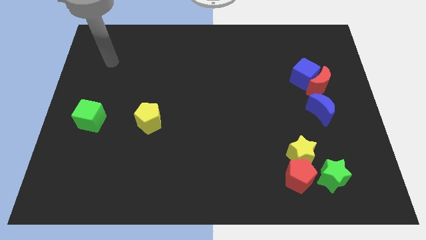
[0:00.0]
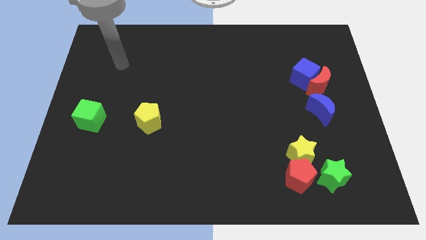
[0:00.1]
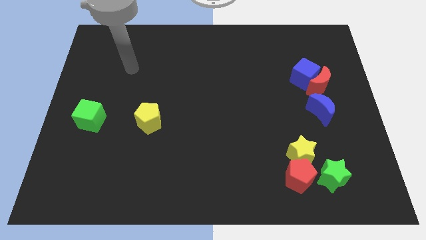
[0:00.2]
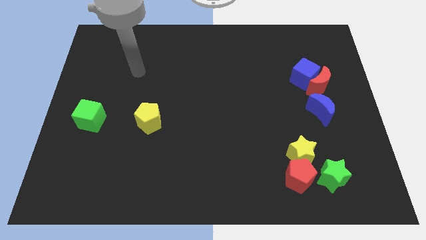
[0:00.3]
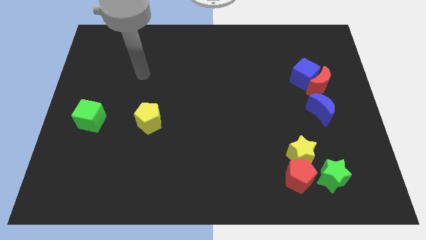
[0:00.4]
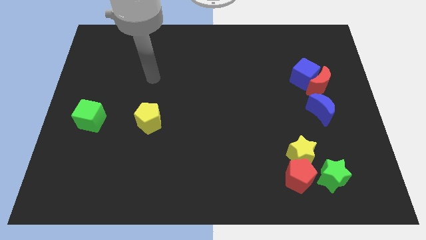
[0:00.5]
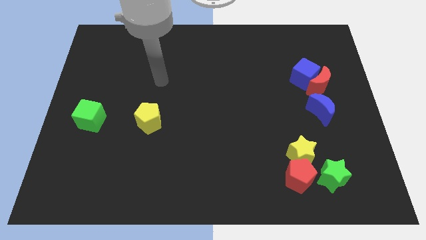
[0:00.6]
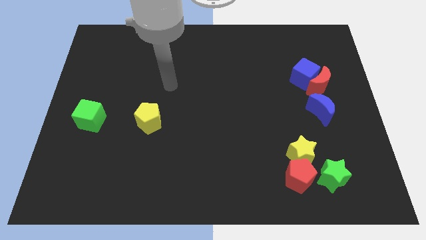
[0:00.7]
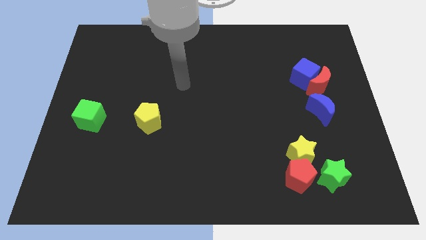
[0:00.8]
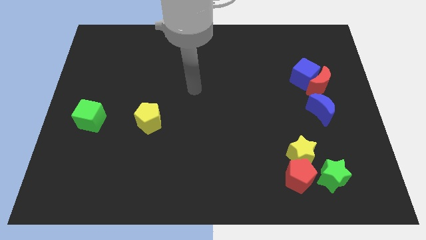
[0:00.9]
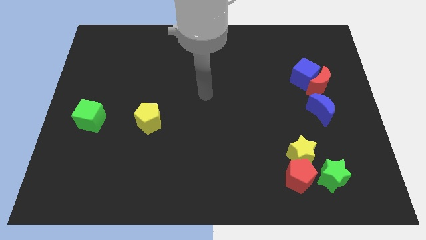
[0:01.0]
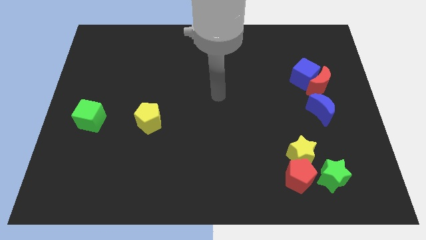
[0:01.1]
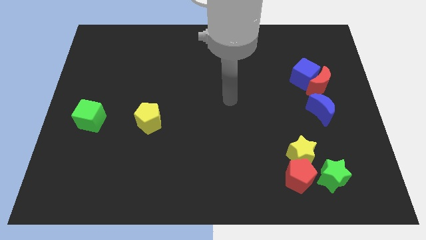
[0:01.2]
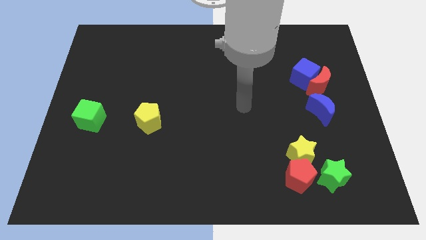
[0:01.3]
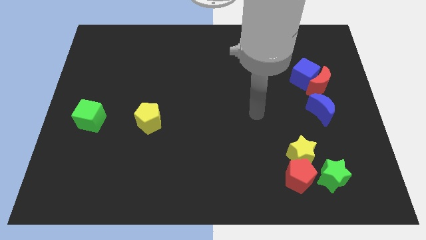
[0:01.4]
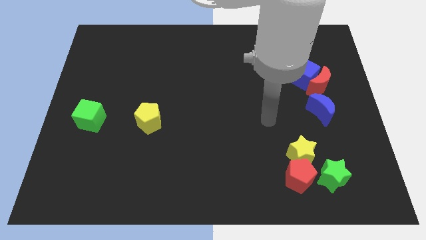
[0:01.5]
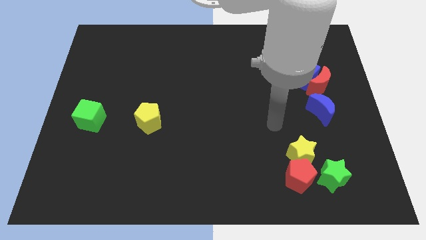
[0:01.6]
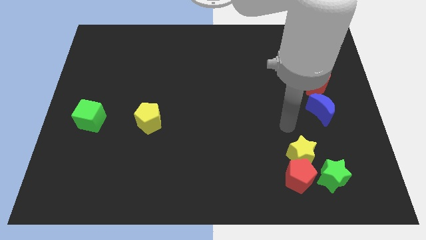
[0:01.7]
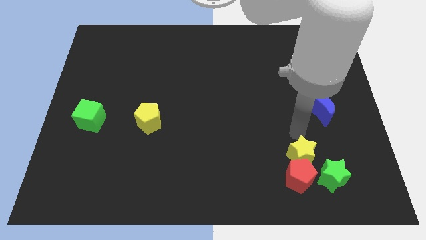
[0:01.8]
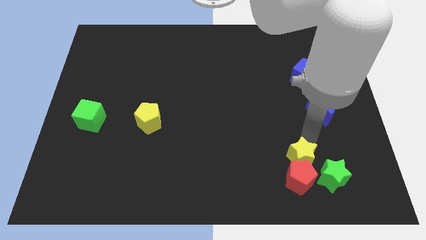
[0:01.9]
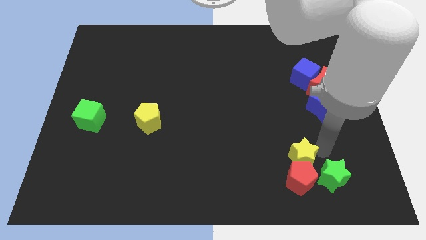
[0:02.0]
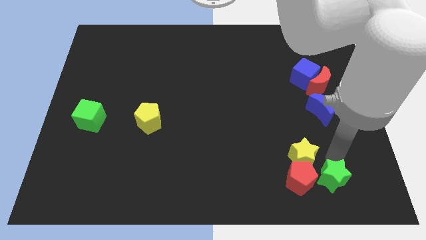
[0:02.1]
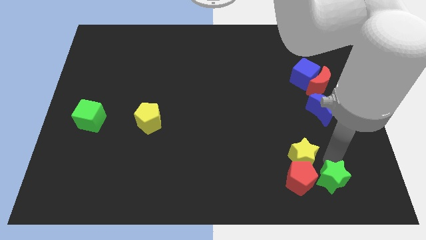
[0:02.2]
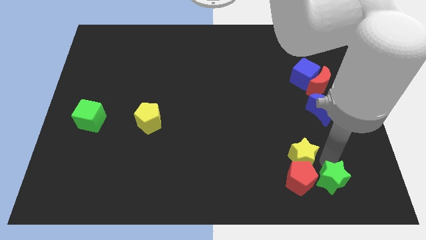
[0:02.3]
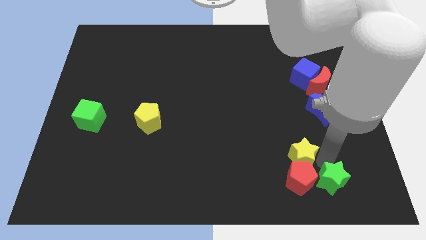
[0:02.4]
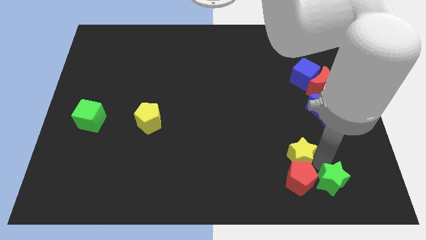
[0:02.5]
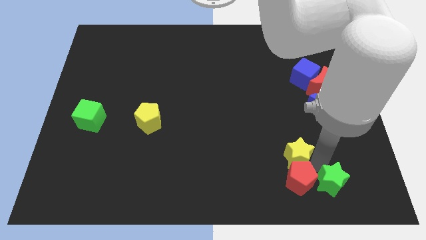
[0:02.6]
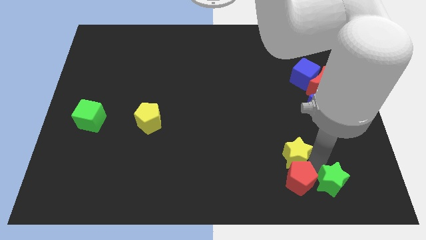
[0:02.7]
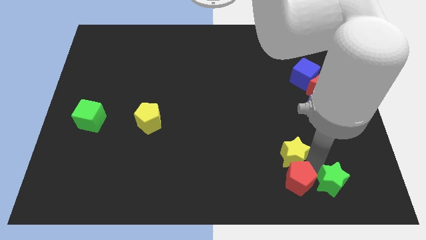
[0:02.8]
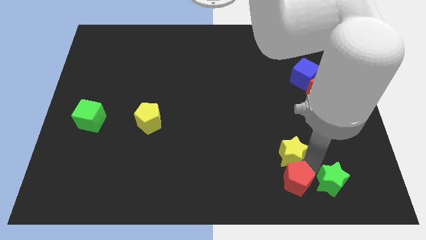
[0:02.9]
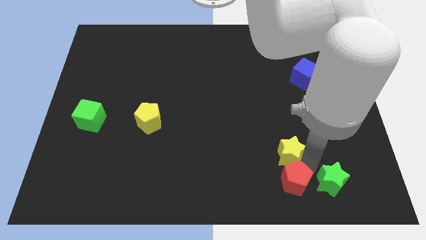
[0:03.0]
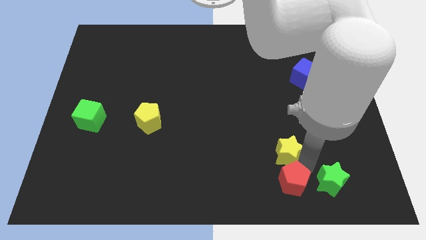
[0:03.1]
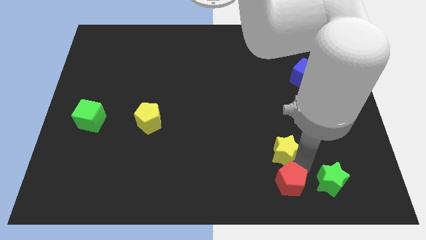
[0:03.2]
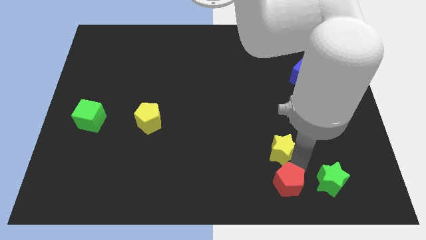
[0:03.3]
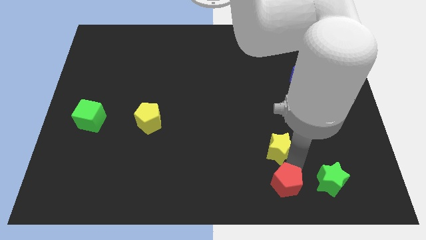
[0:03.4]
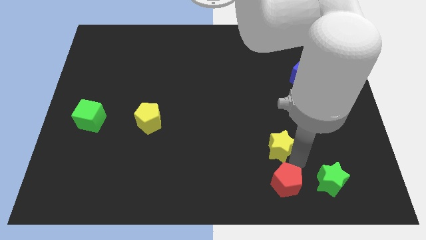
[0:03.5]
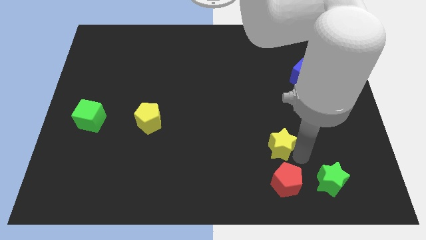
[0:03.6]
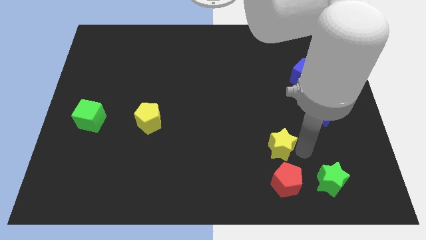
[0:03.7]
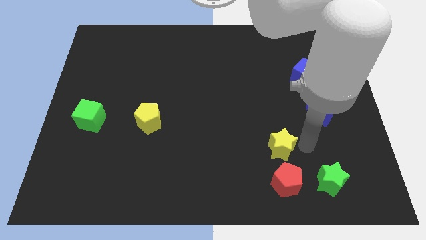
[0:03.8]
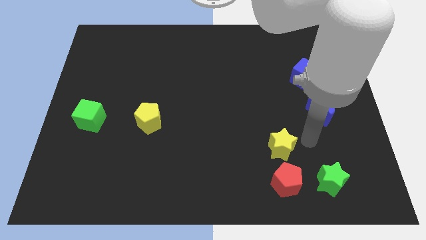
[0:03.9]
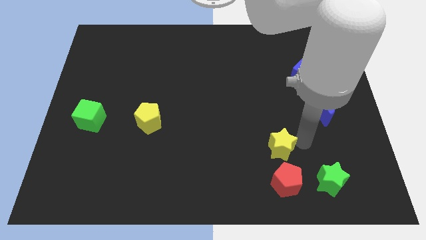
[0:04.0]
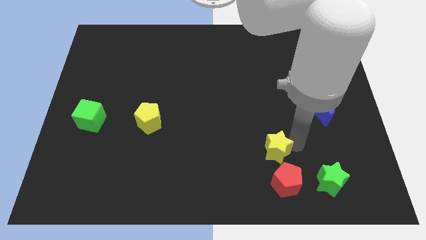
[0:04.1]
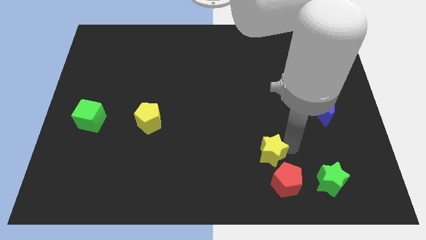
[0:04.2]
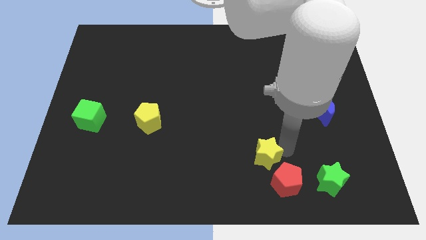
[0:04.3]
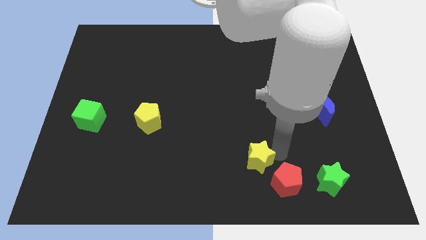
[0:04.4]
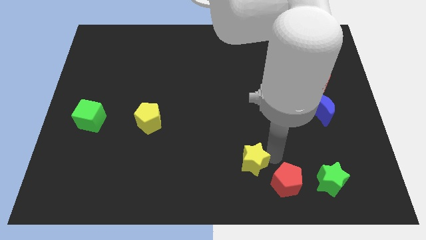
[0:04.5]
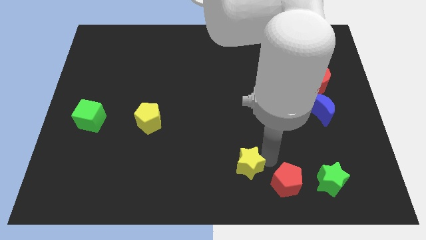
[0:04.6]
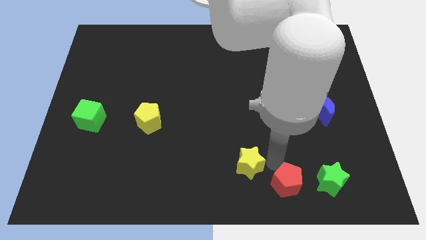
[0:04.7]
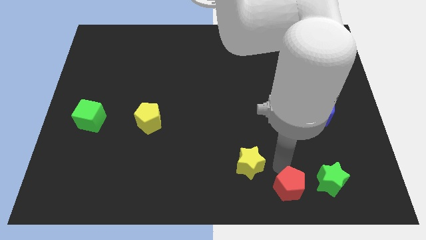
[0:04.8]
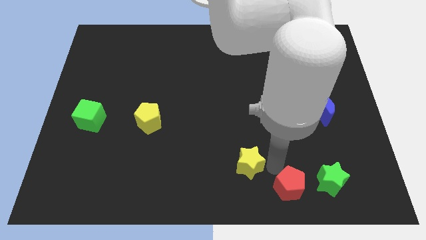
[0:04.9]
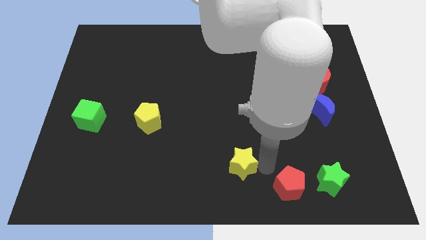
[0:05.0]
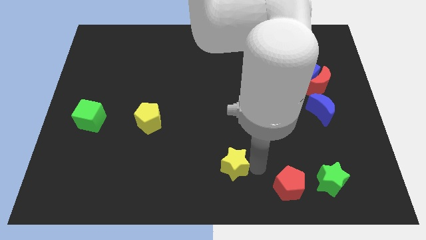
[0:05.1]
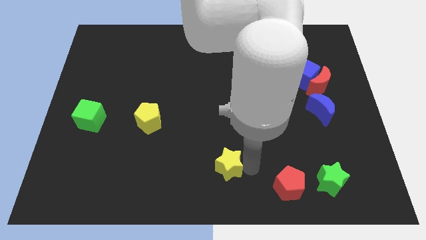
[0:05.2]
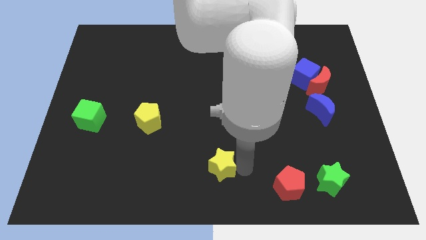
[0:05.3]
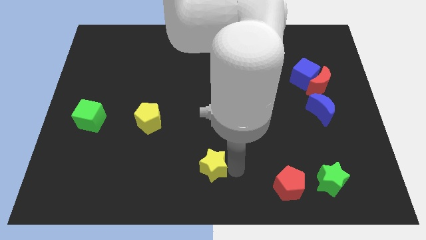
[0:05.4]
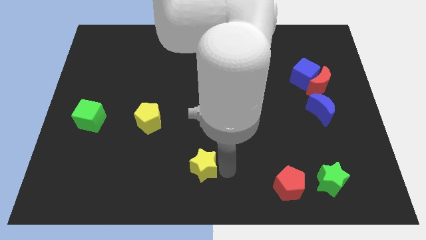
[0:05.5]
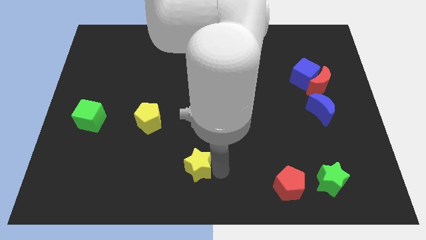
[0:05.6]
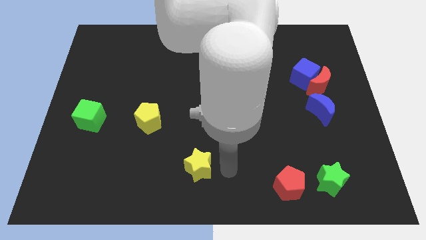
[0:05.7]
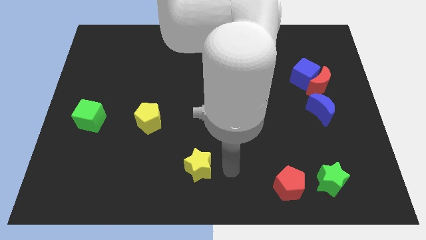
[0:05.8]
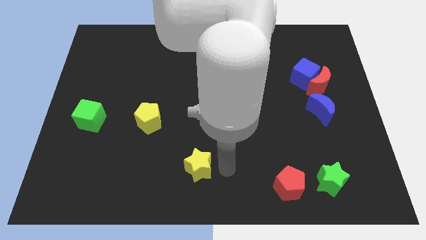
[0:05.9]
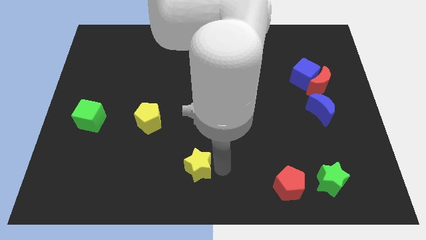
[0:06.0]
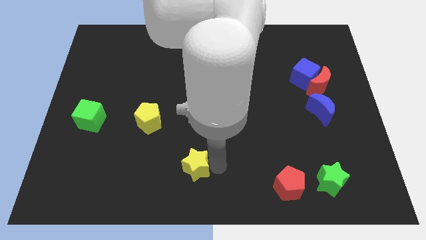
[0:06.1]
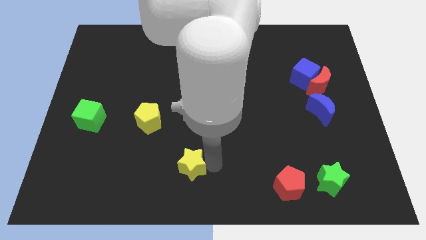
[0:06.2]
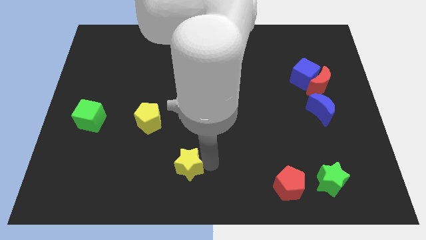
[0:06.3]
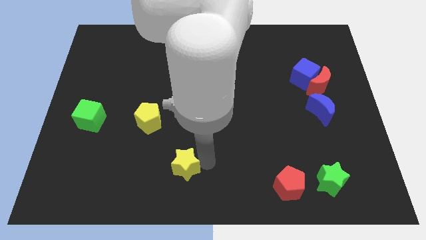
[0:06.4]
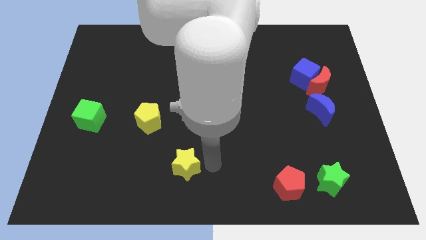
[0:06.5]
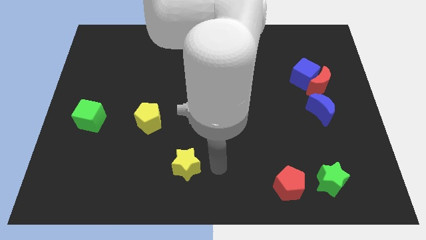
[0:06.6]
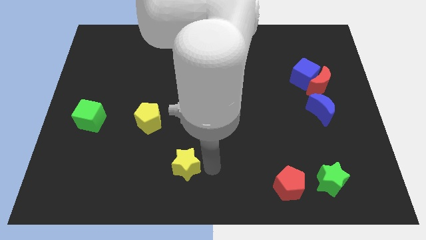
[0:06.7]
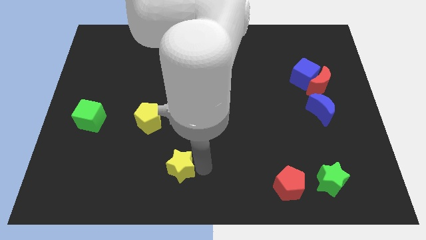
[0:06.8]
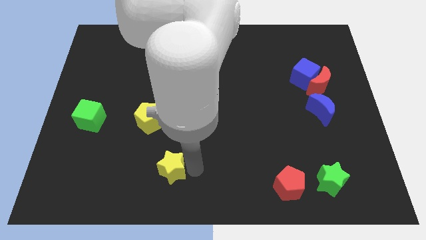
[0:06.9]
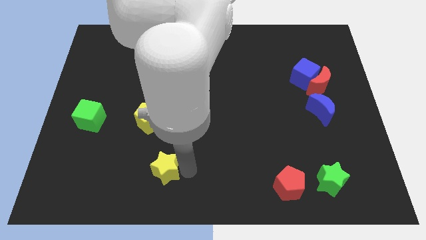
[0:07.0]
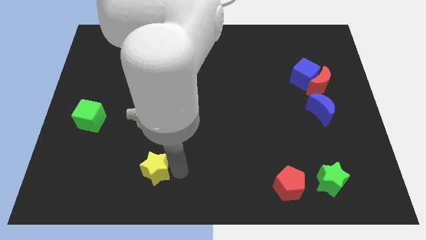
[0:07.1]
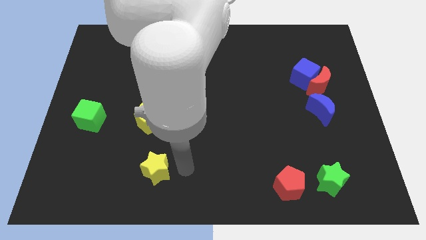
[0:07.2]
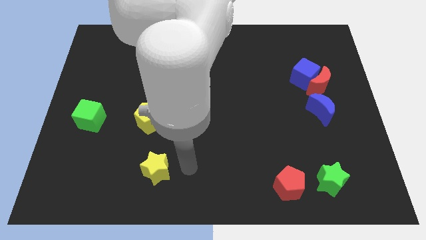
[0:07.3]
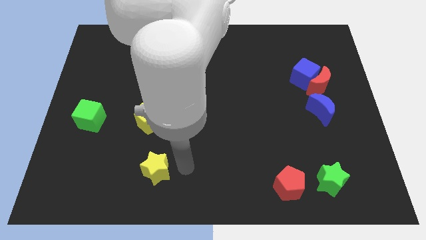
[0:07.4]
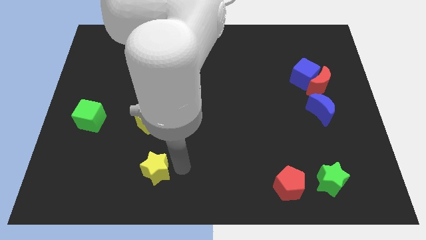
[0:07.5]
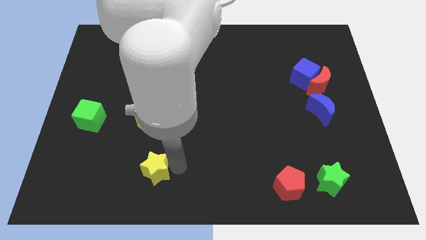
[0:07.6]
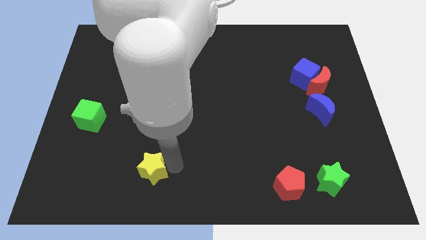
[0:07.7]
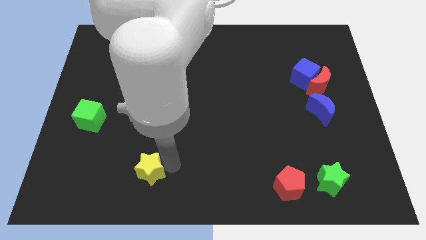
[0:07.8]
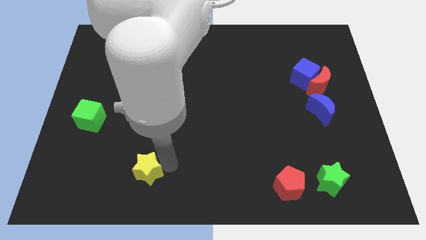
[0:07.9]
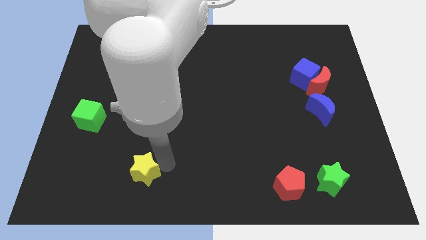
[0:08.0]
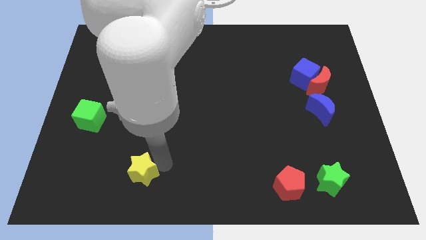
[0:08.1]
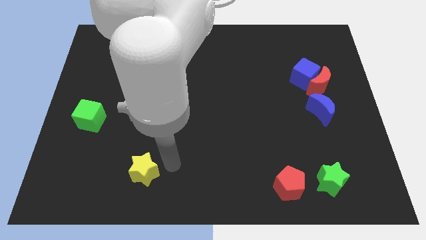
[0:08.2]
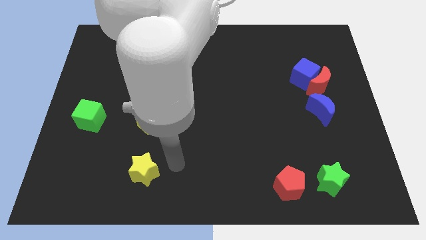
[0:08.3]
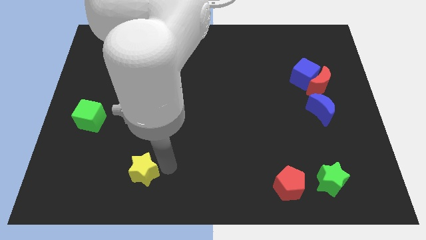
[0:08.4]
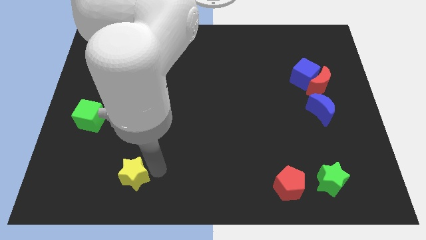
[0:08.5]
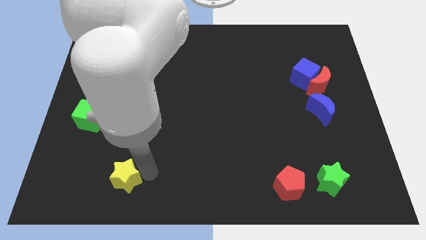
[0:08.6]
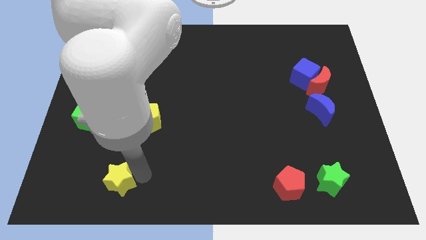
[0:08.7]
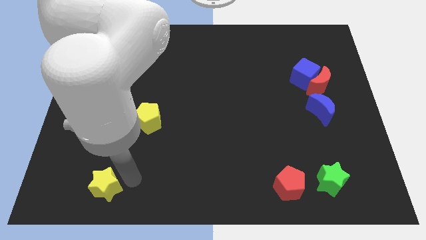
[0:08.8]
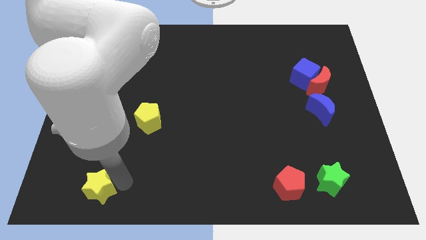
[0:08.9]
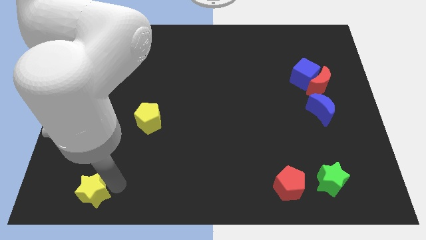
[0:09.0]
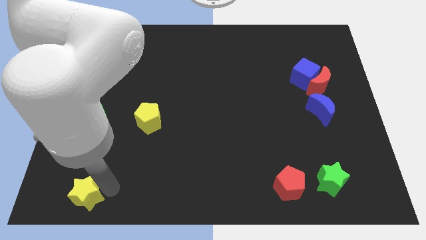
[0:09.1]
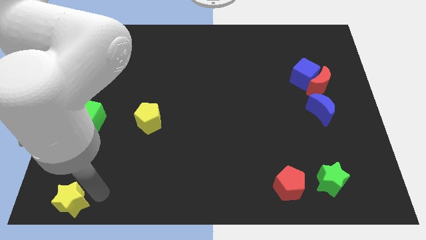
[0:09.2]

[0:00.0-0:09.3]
push the yellow star to the lower left corner
